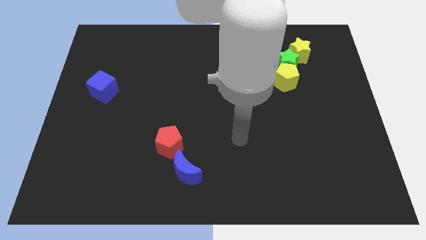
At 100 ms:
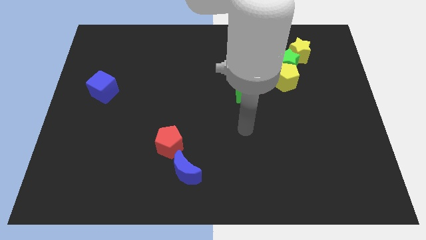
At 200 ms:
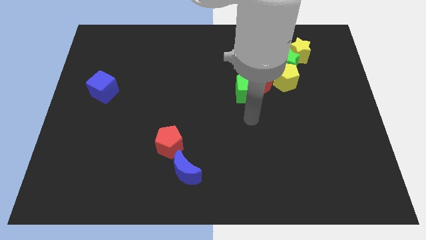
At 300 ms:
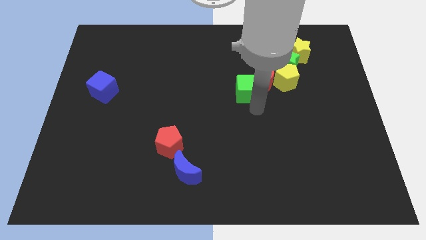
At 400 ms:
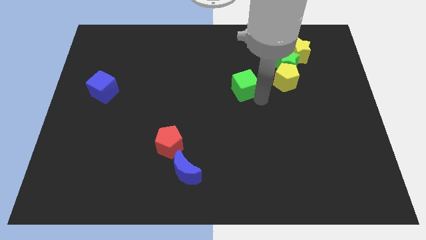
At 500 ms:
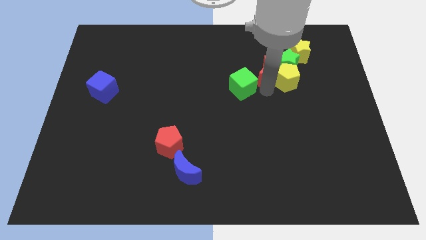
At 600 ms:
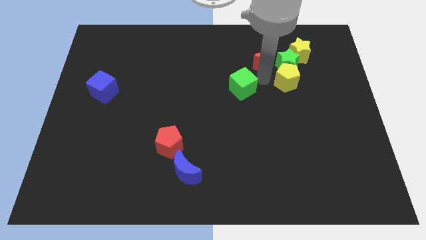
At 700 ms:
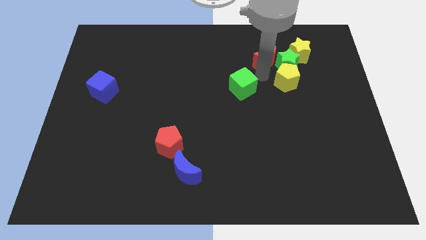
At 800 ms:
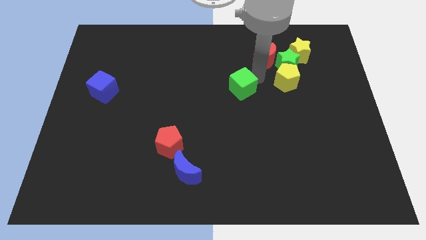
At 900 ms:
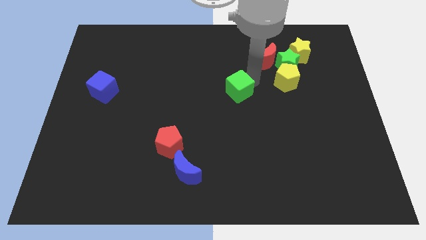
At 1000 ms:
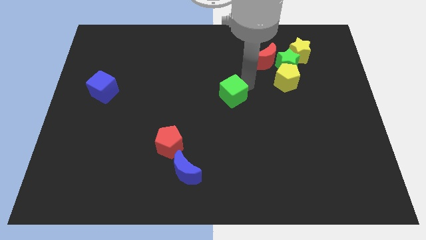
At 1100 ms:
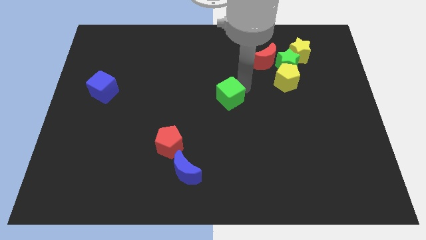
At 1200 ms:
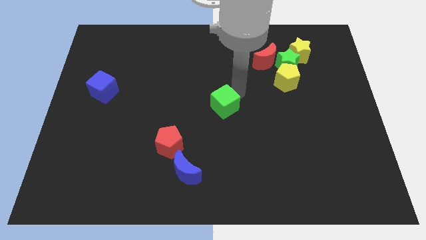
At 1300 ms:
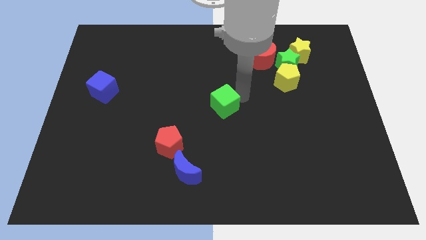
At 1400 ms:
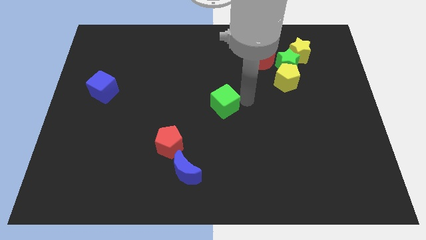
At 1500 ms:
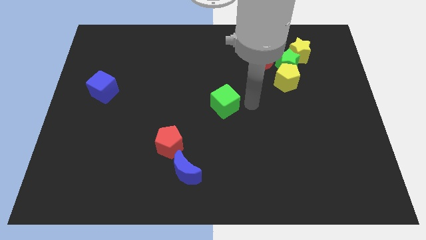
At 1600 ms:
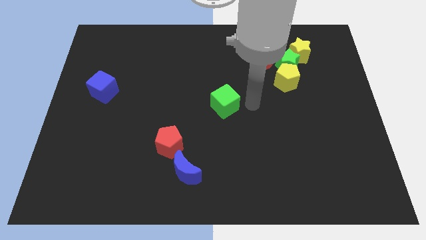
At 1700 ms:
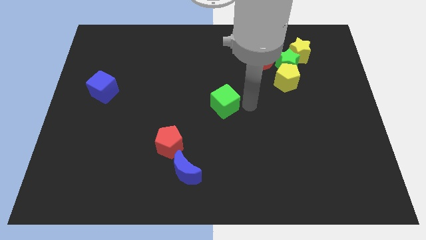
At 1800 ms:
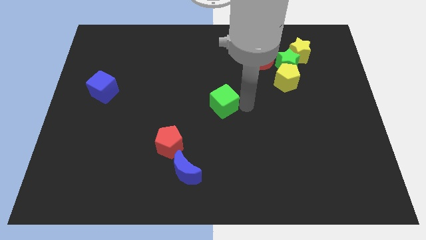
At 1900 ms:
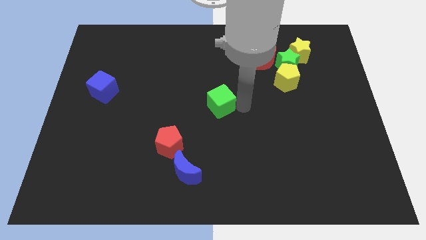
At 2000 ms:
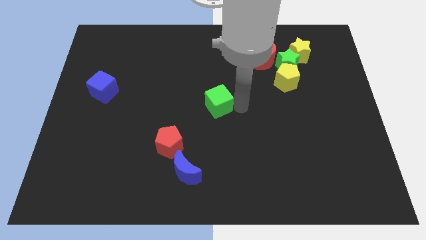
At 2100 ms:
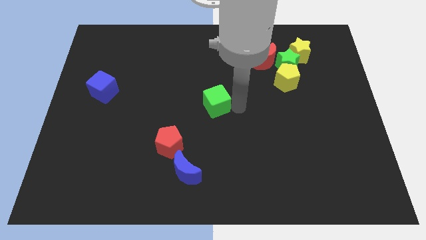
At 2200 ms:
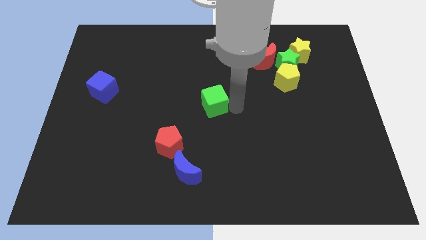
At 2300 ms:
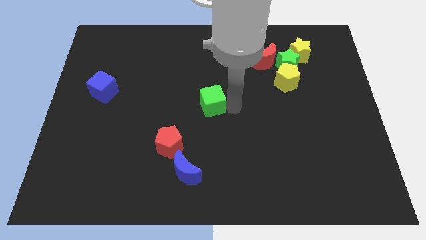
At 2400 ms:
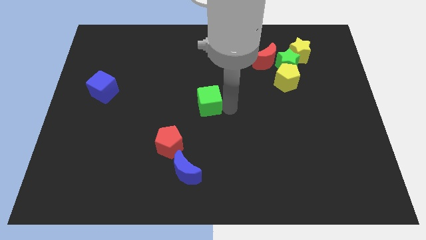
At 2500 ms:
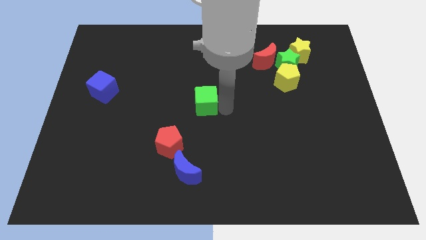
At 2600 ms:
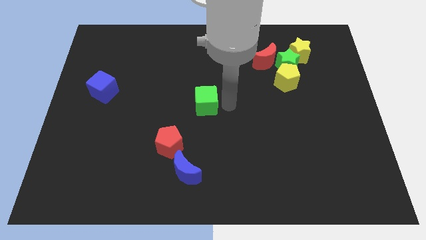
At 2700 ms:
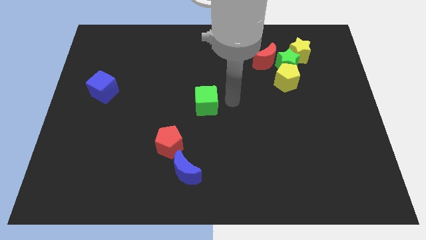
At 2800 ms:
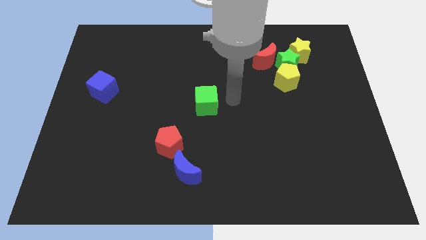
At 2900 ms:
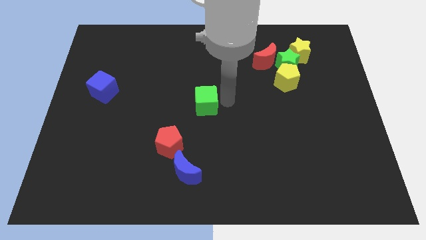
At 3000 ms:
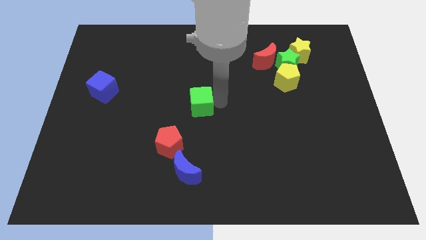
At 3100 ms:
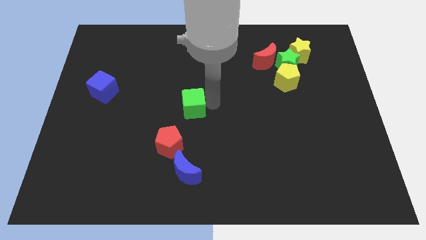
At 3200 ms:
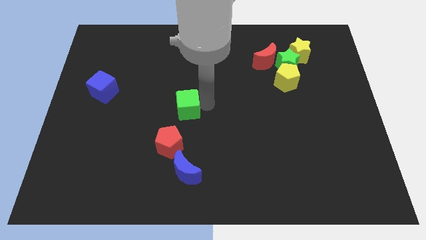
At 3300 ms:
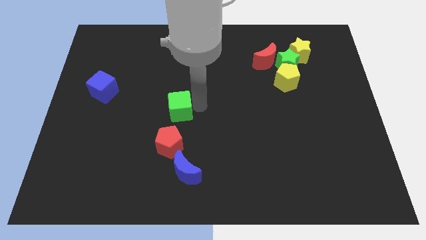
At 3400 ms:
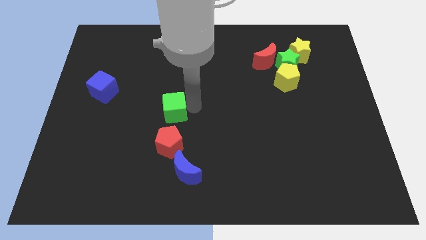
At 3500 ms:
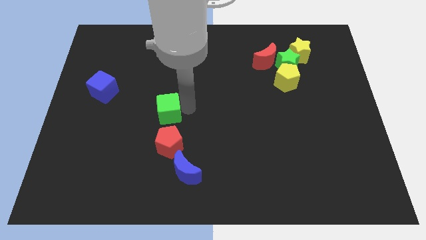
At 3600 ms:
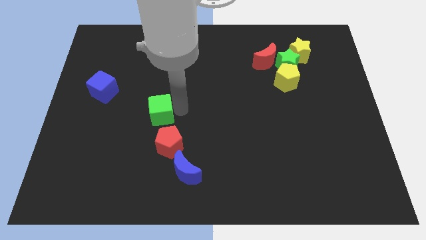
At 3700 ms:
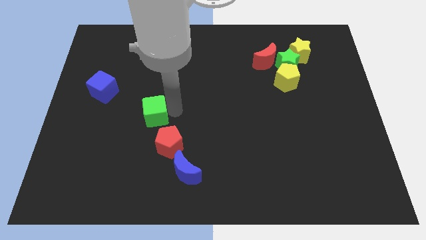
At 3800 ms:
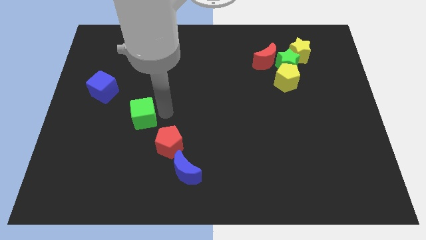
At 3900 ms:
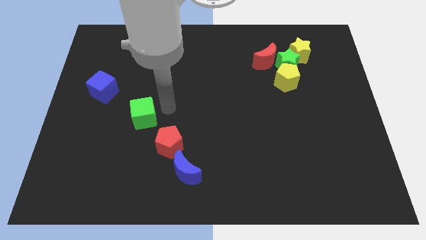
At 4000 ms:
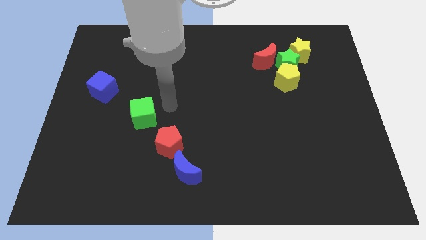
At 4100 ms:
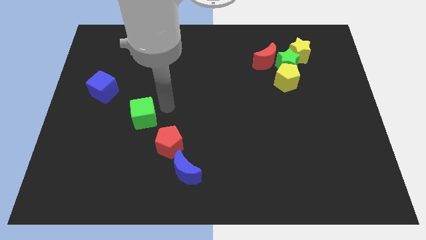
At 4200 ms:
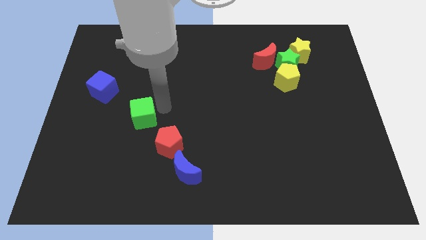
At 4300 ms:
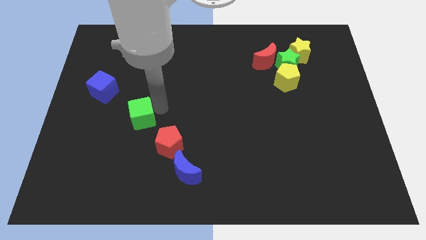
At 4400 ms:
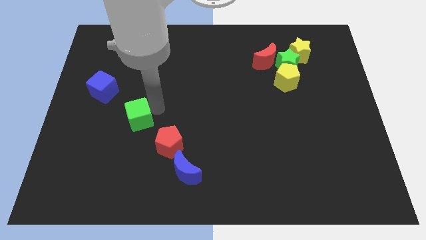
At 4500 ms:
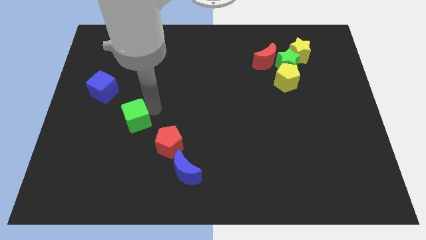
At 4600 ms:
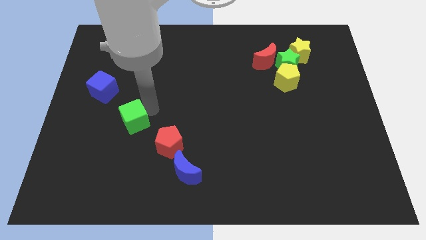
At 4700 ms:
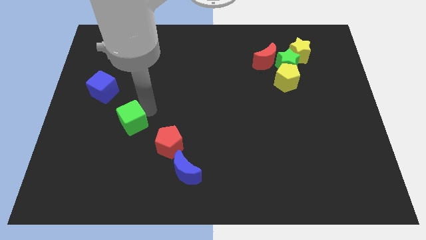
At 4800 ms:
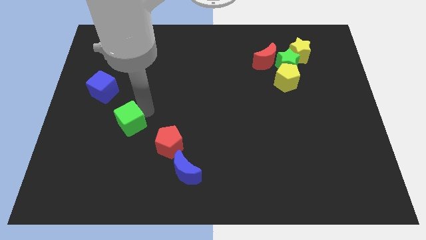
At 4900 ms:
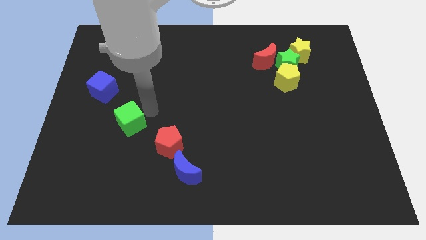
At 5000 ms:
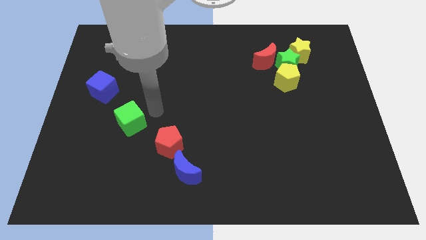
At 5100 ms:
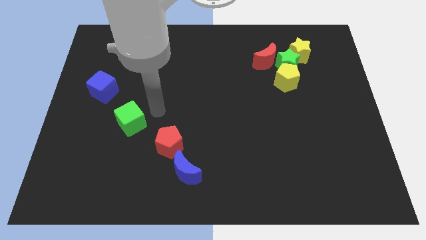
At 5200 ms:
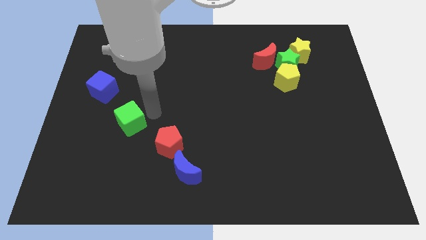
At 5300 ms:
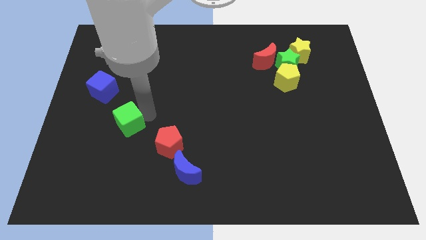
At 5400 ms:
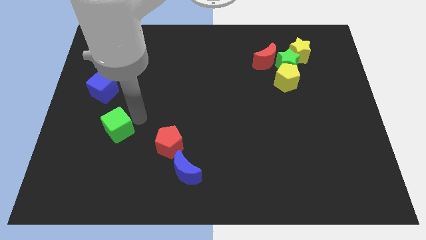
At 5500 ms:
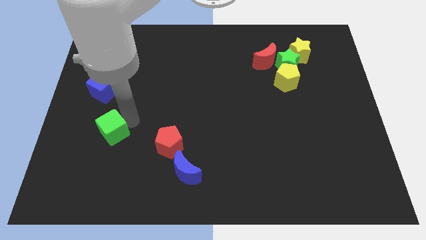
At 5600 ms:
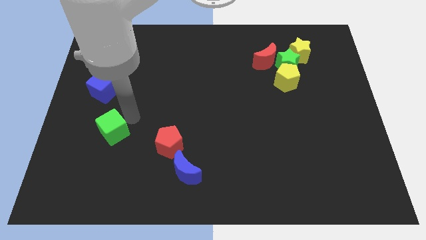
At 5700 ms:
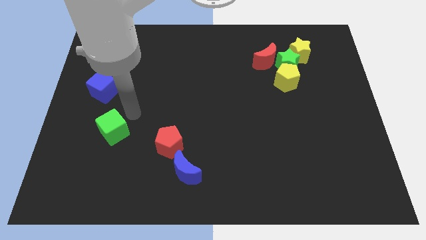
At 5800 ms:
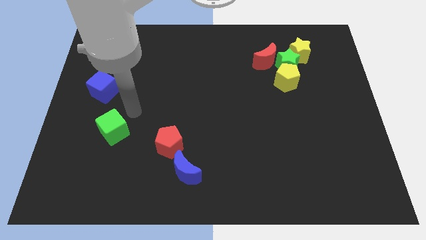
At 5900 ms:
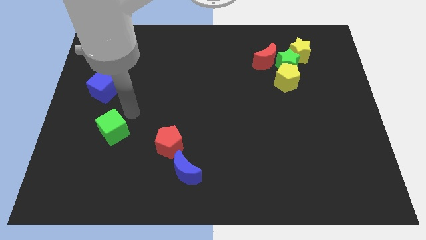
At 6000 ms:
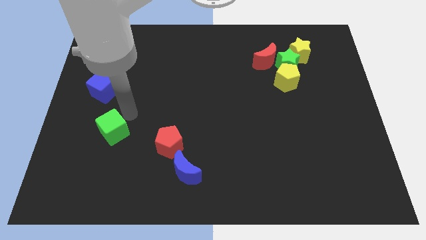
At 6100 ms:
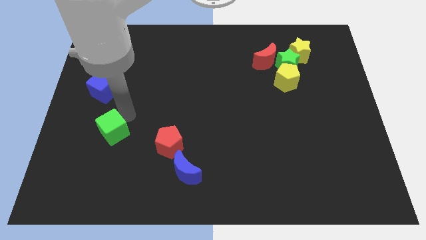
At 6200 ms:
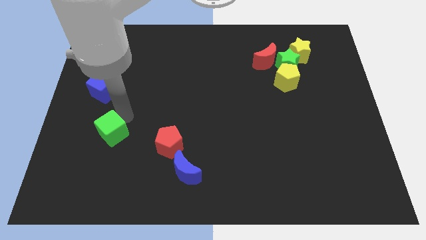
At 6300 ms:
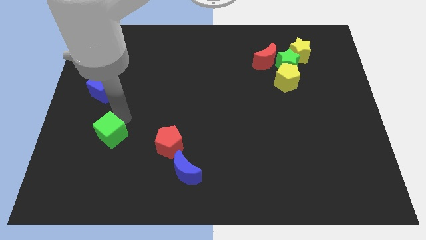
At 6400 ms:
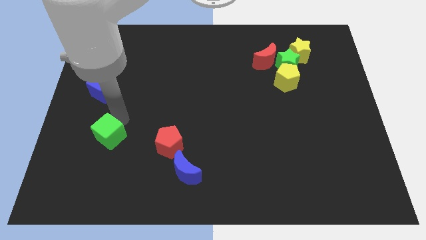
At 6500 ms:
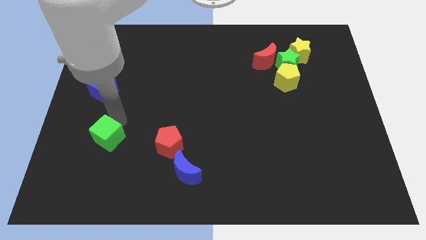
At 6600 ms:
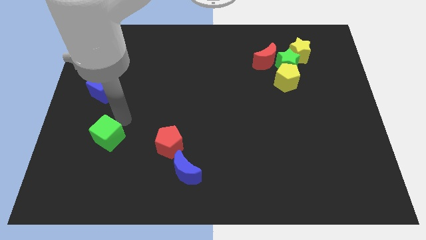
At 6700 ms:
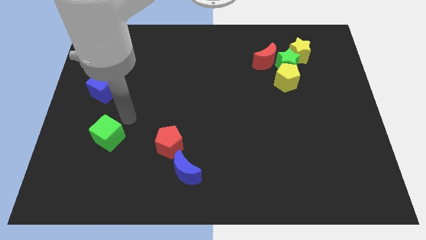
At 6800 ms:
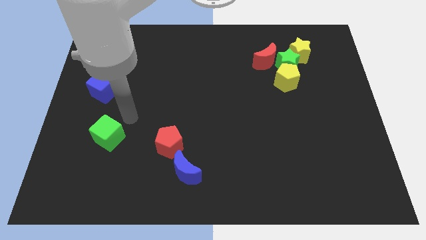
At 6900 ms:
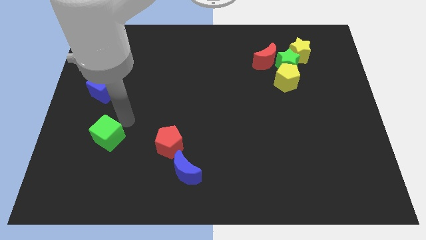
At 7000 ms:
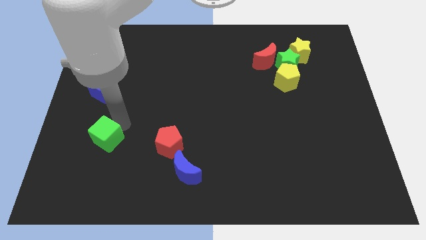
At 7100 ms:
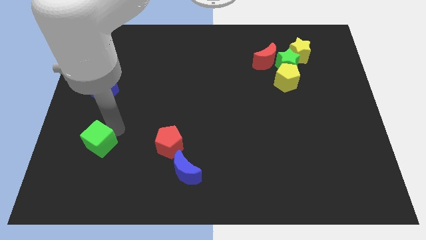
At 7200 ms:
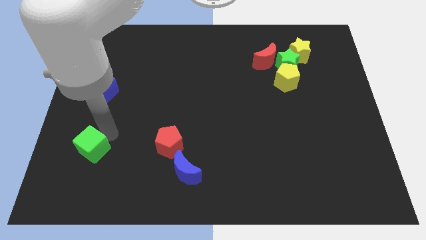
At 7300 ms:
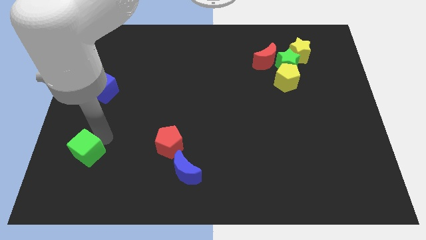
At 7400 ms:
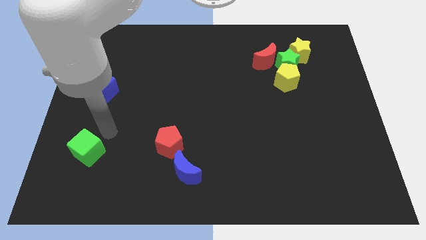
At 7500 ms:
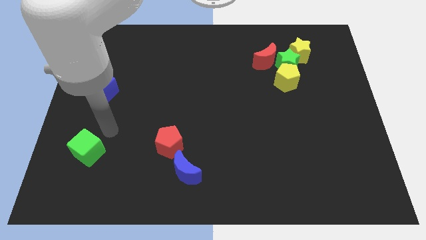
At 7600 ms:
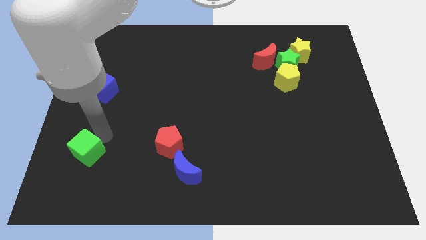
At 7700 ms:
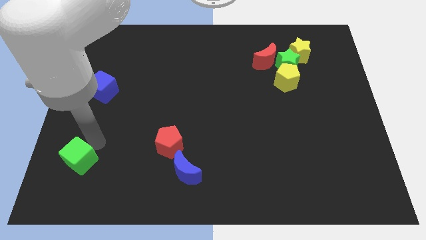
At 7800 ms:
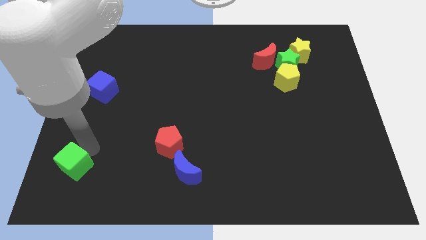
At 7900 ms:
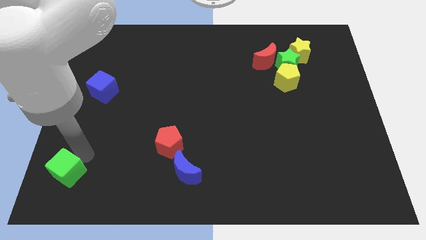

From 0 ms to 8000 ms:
move the green cube to the bottom left of the board
